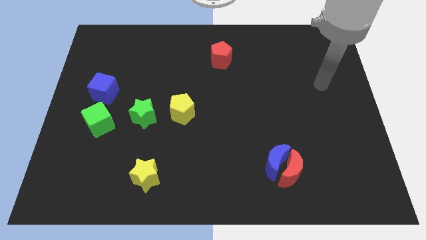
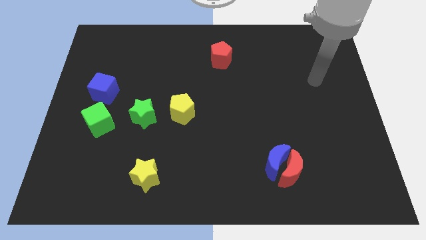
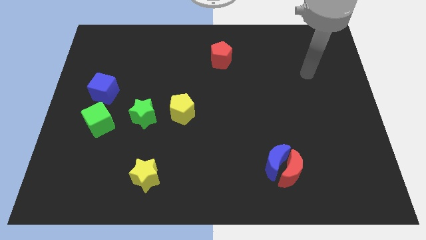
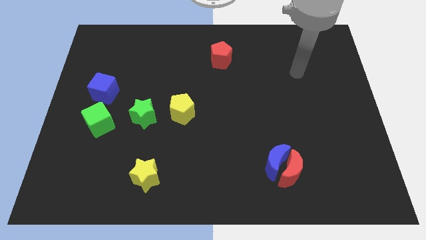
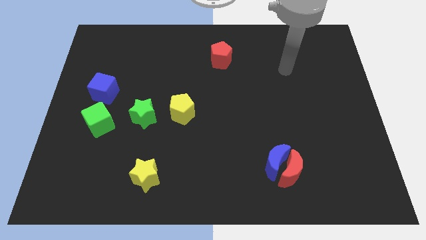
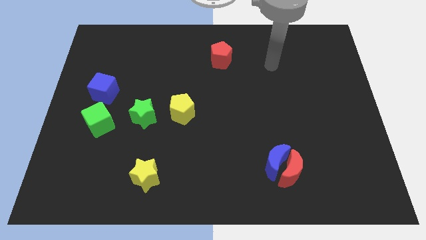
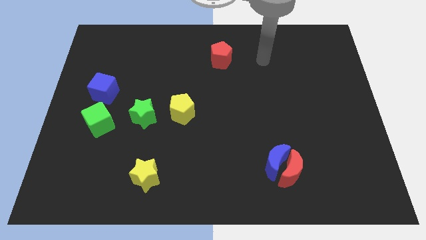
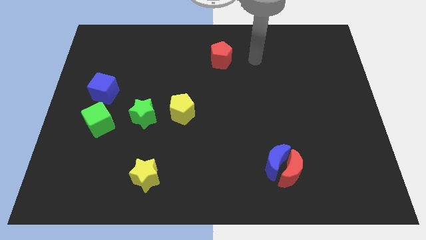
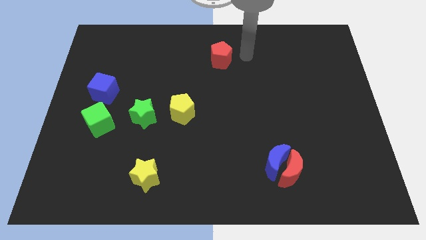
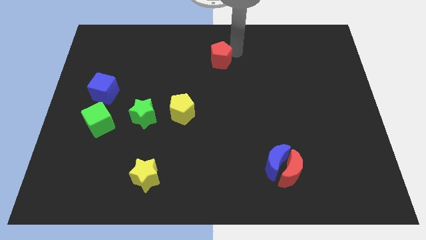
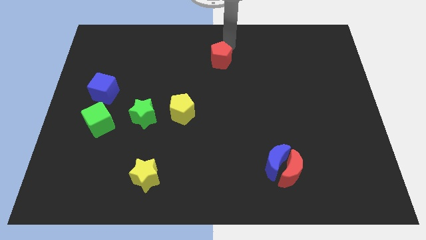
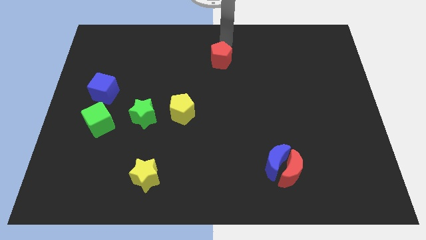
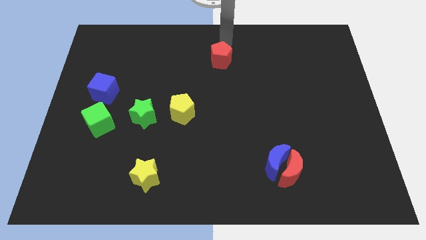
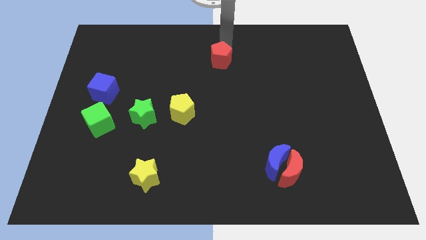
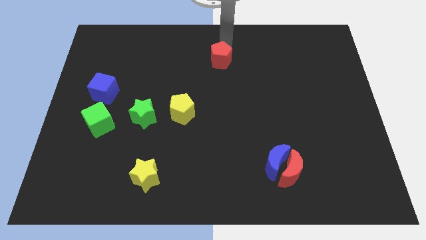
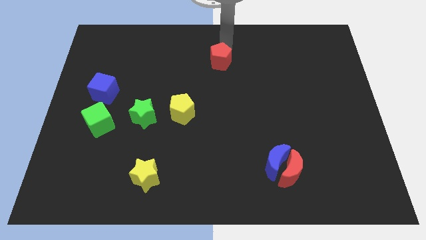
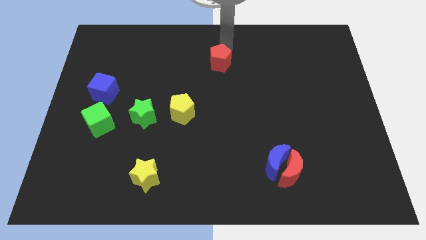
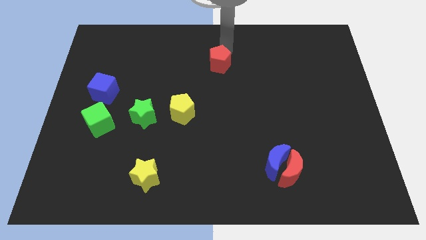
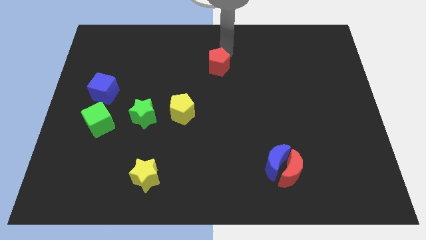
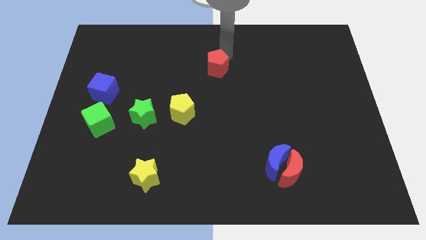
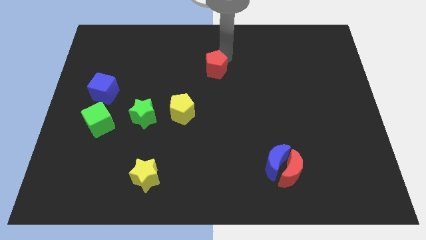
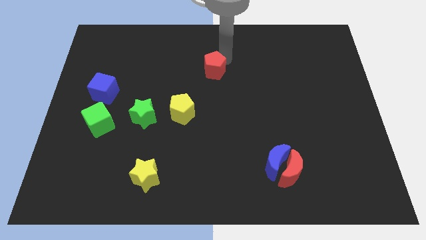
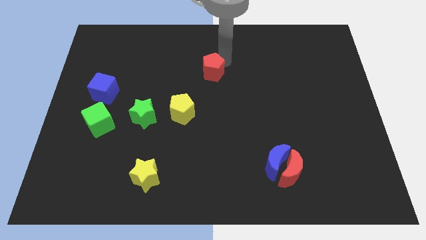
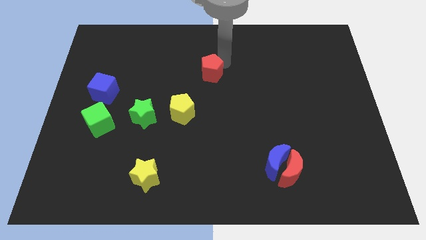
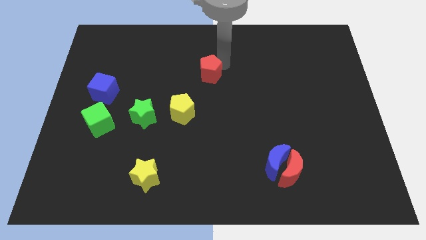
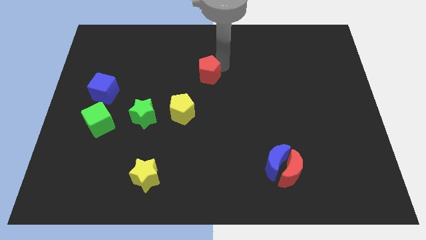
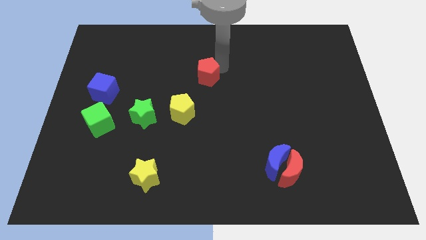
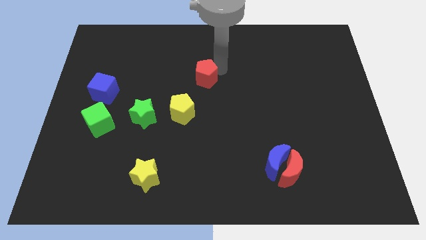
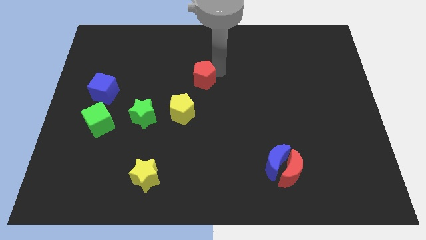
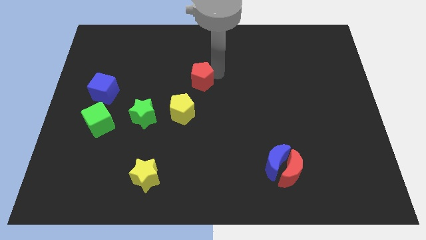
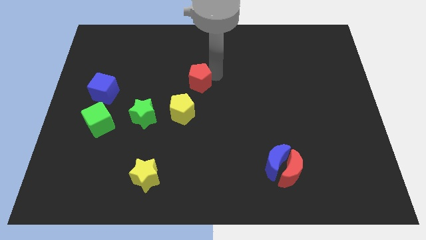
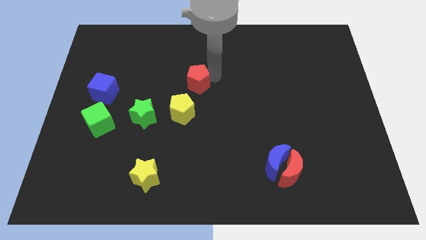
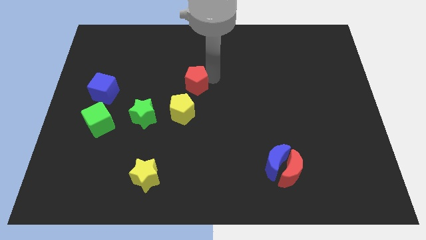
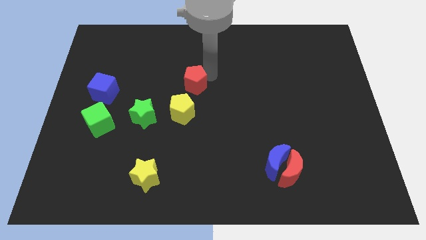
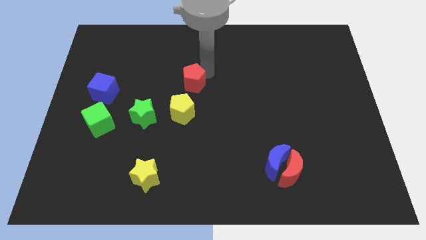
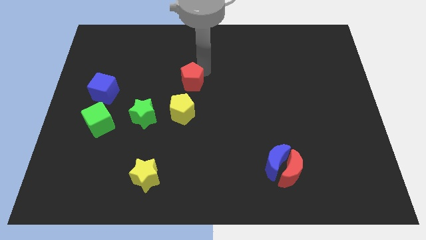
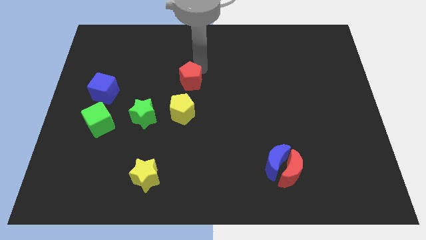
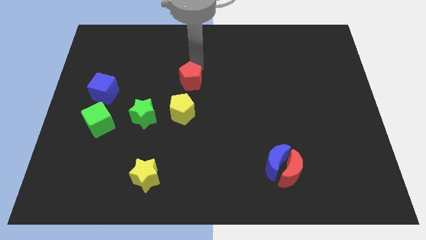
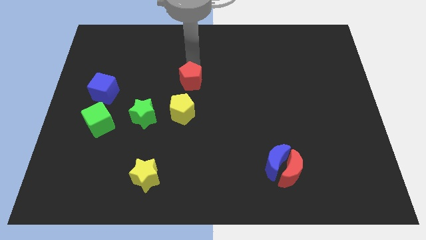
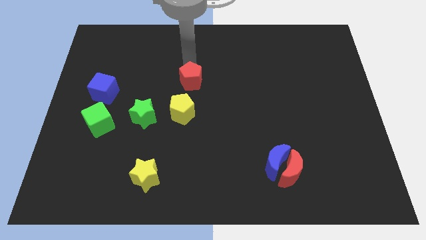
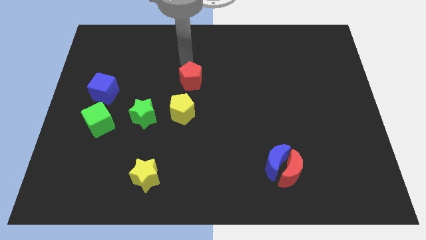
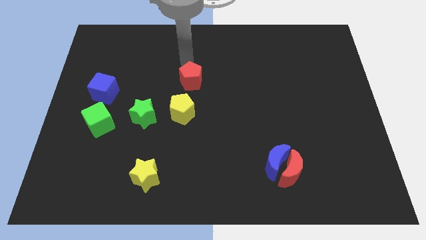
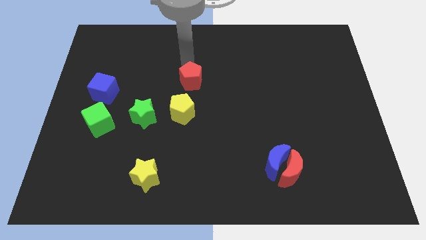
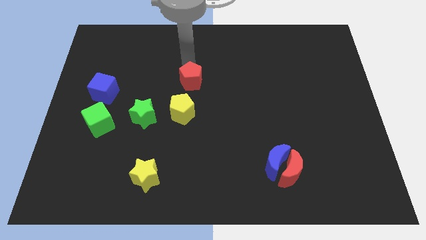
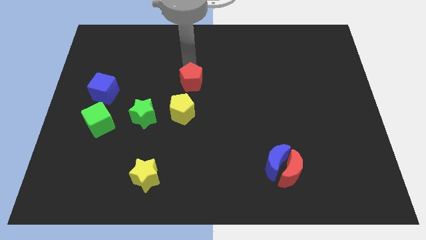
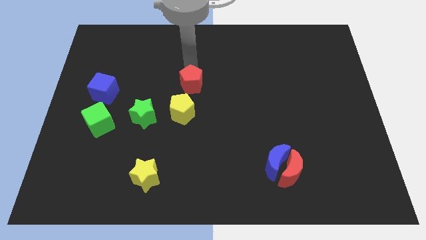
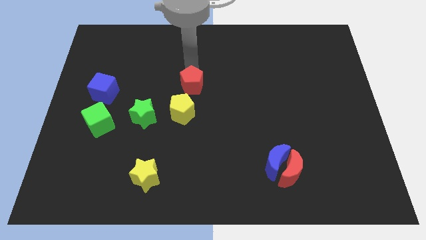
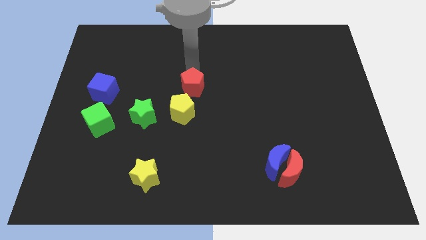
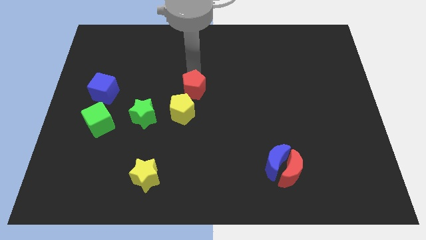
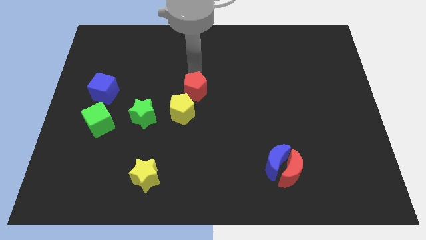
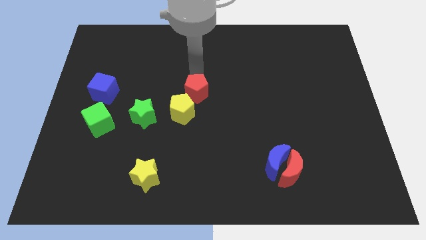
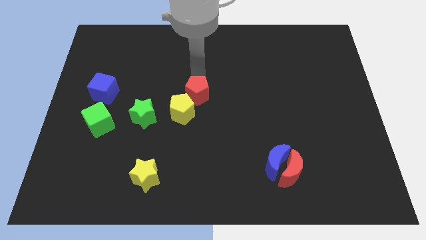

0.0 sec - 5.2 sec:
push the red pentagon next to the yellow pentagon

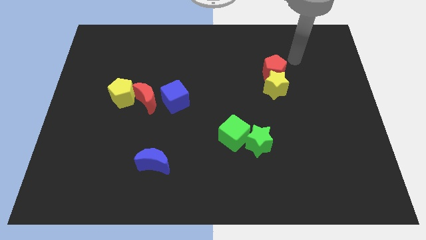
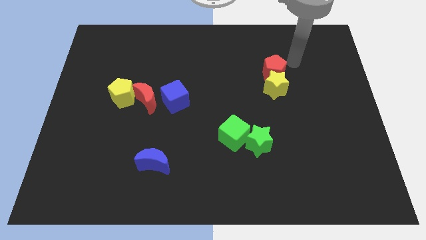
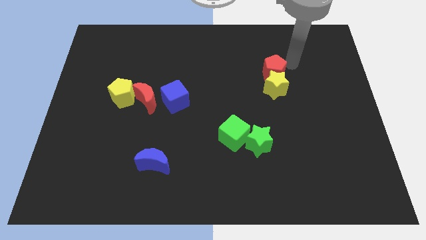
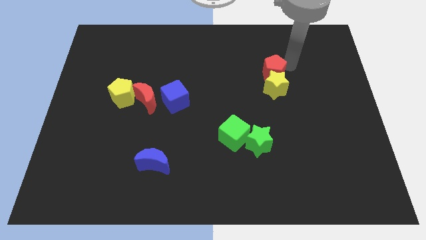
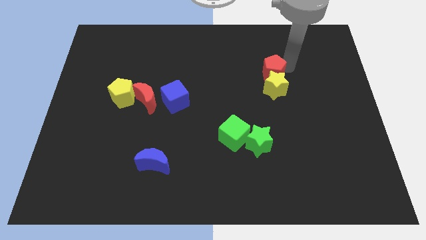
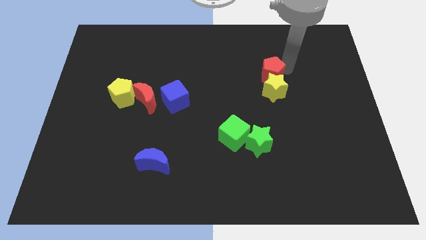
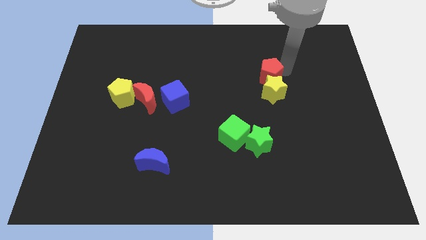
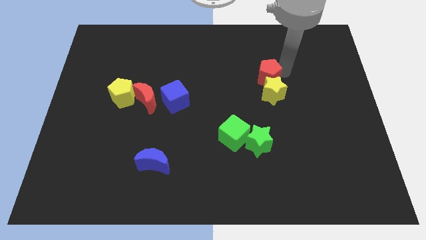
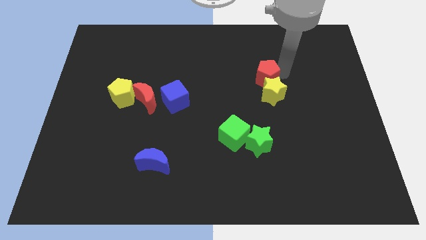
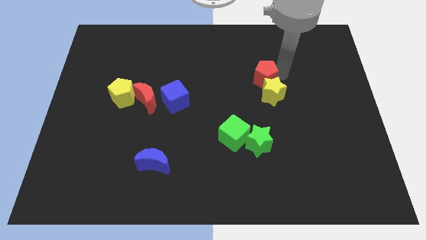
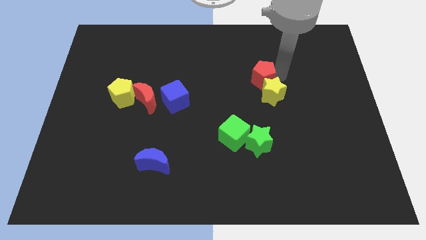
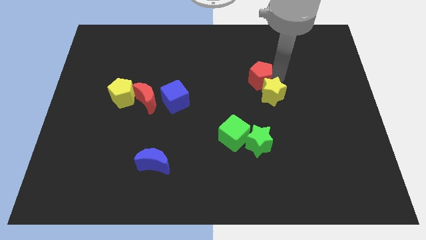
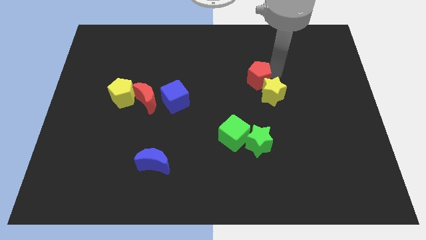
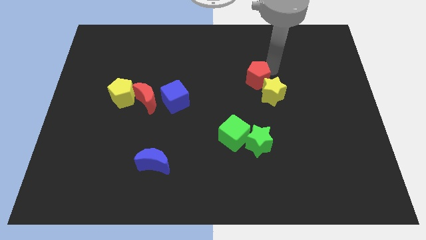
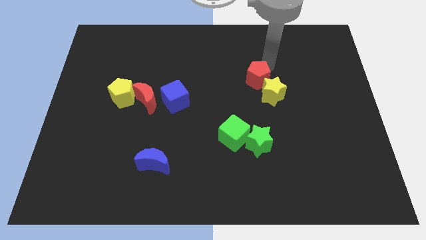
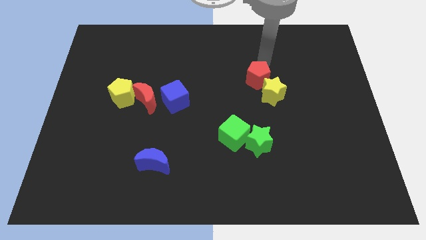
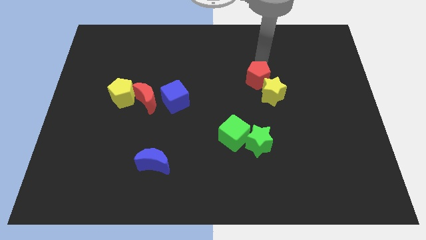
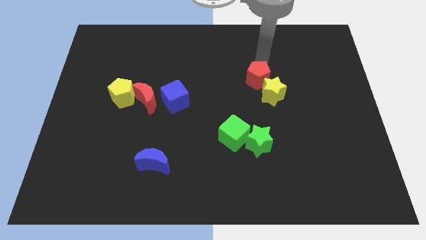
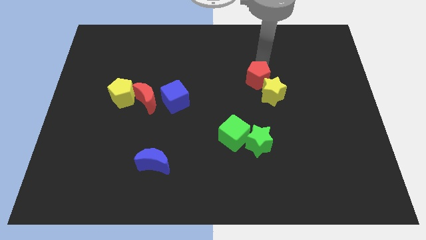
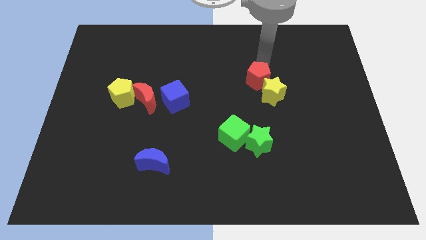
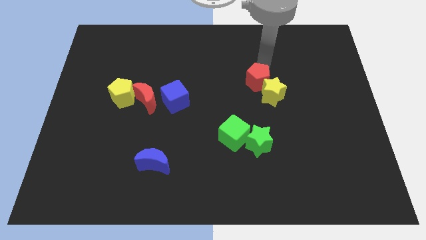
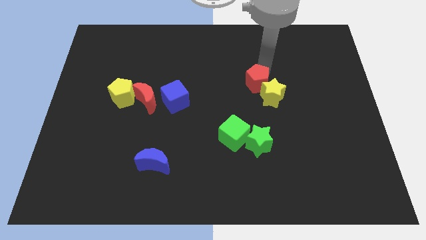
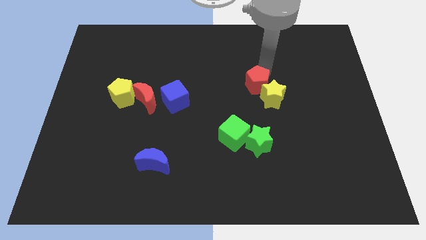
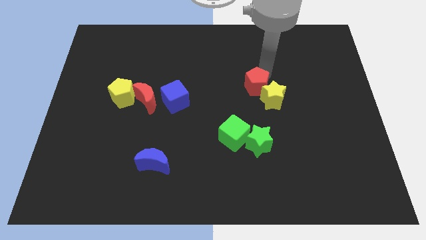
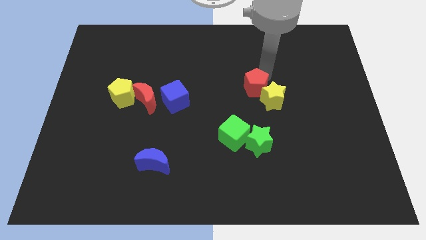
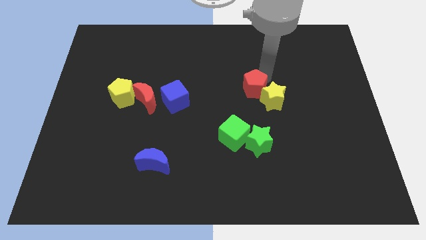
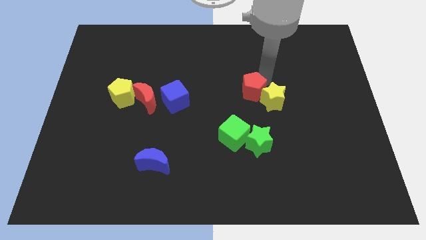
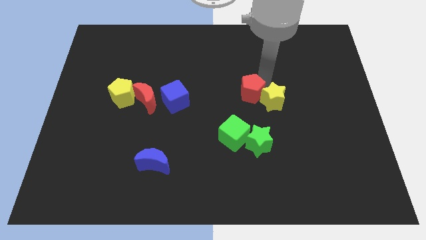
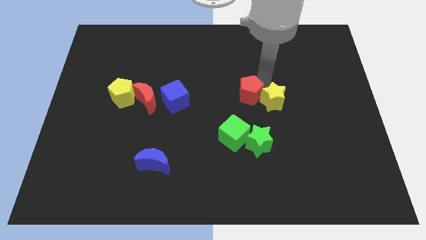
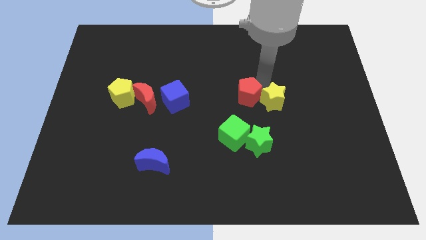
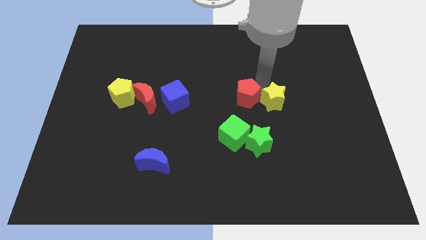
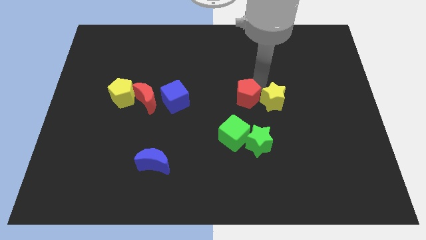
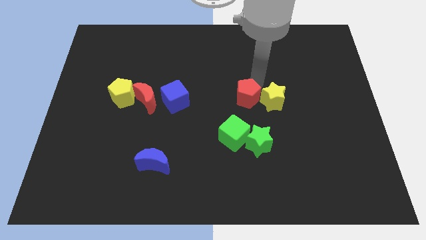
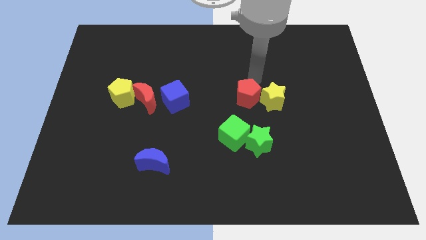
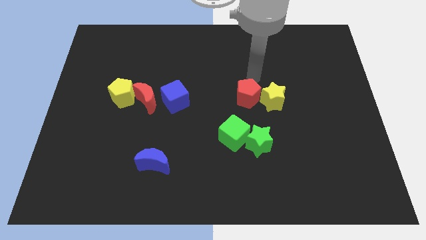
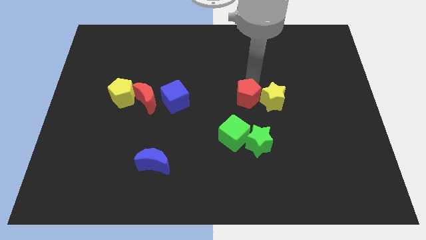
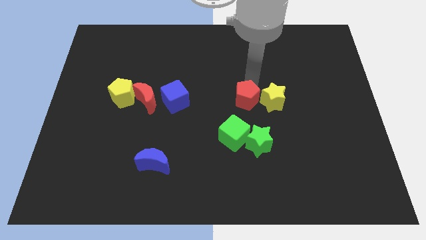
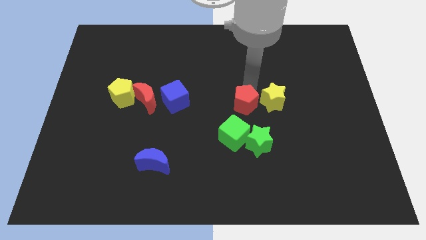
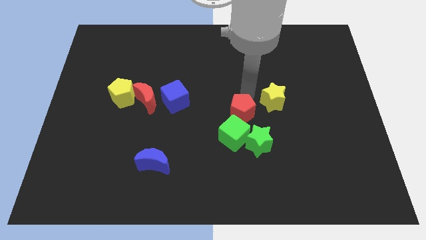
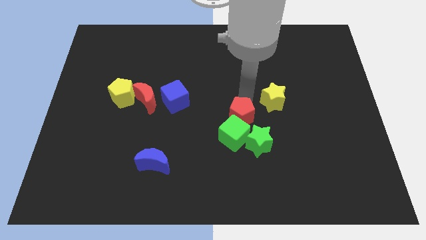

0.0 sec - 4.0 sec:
push the red pentagon to the green cube
